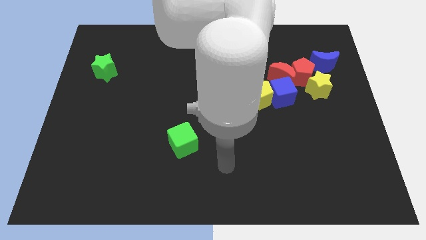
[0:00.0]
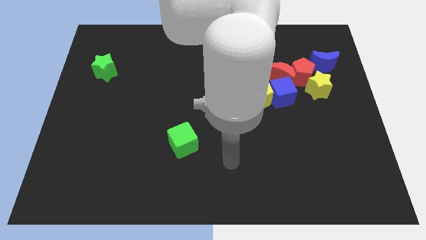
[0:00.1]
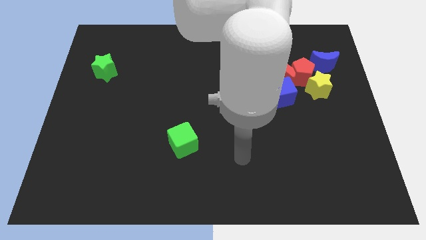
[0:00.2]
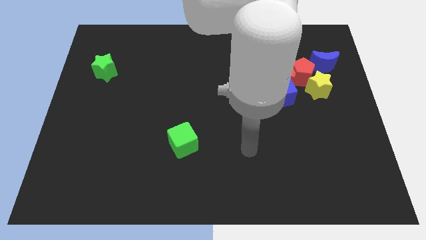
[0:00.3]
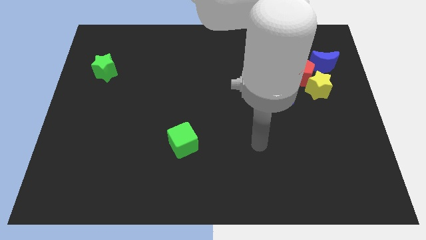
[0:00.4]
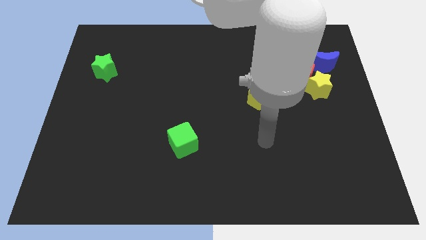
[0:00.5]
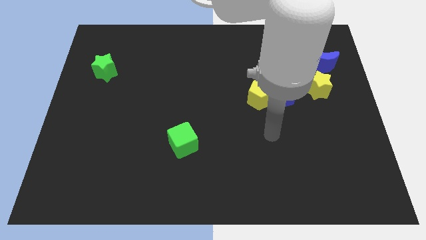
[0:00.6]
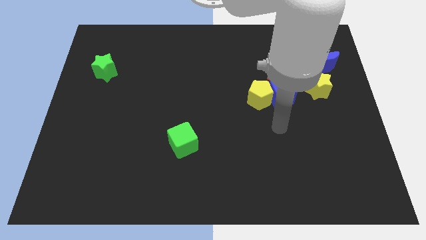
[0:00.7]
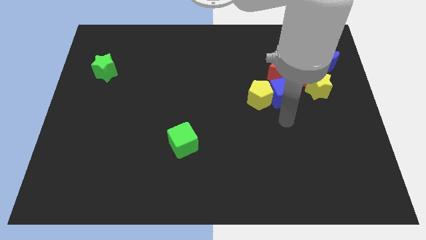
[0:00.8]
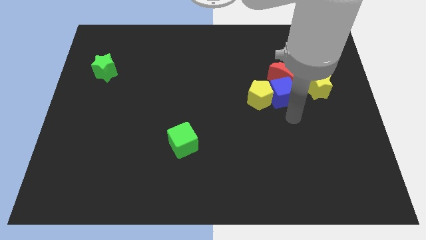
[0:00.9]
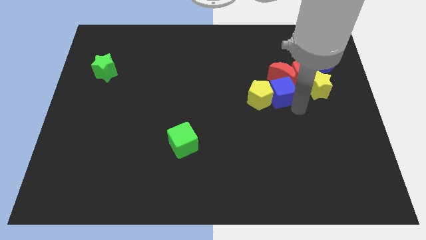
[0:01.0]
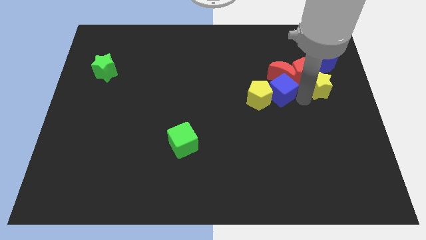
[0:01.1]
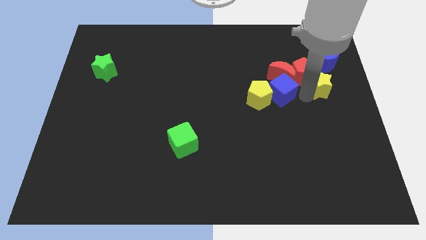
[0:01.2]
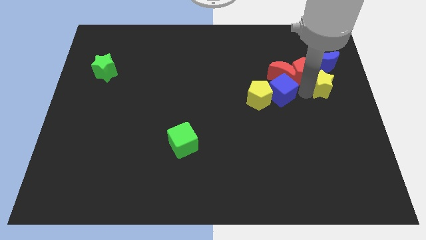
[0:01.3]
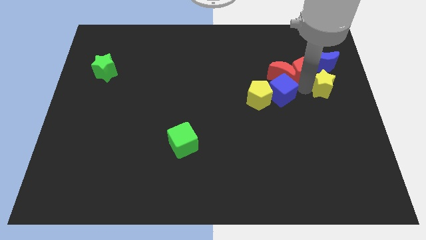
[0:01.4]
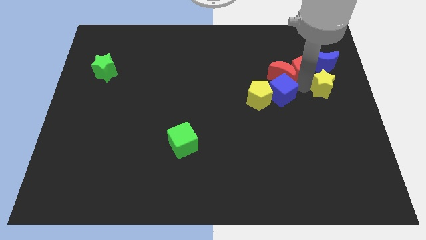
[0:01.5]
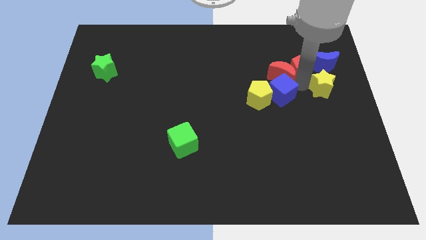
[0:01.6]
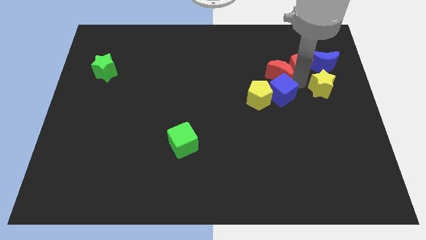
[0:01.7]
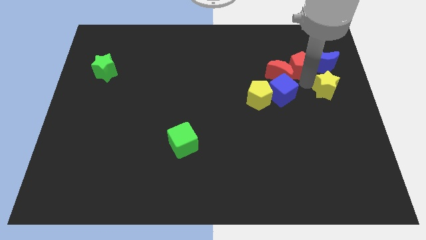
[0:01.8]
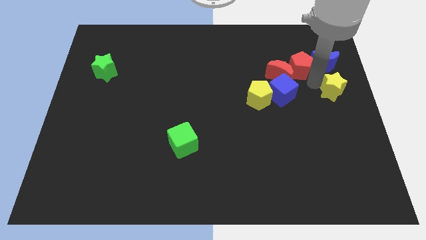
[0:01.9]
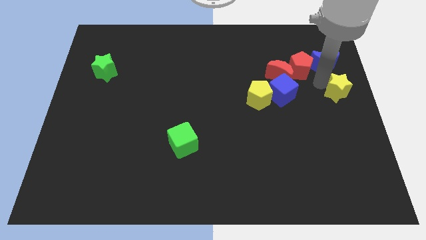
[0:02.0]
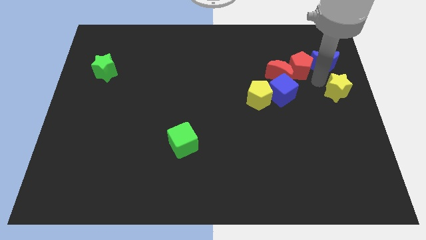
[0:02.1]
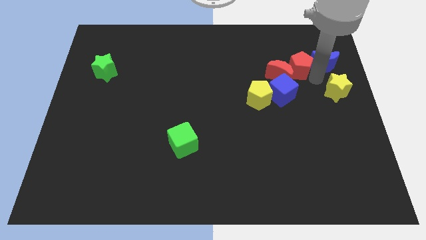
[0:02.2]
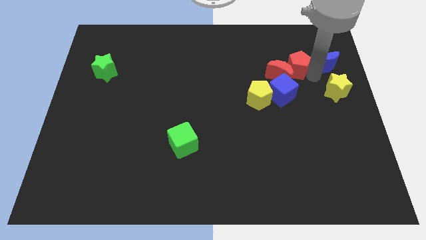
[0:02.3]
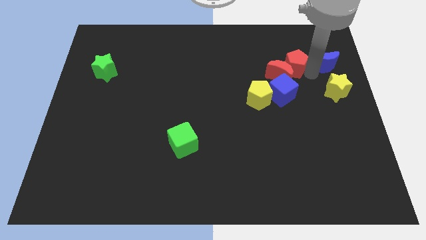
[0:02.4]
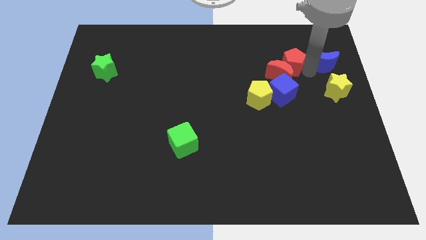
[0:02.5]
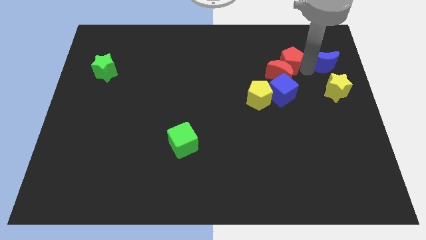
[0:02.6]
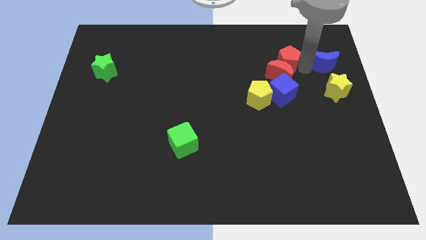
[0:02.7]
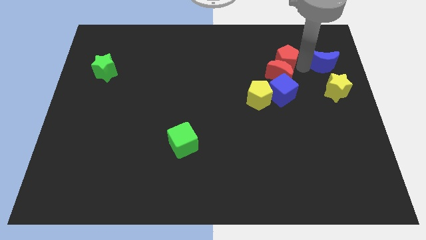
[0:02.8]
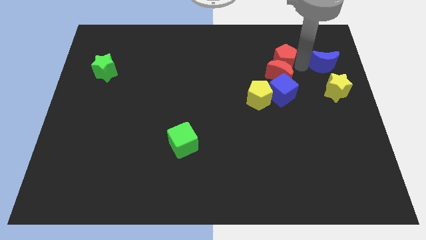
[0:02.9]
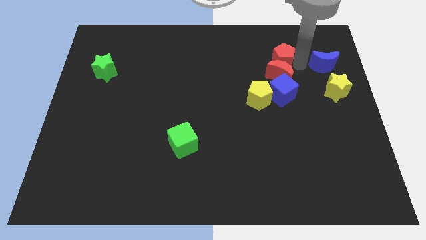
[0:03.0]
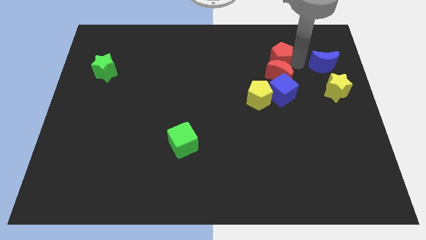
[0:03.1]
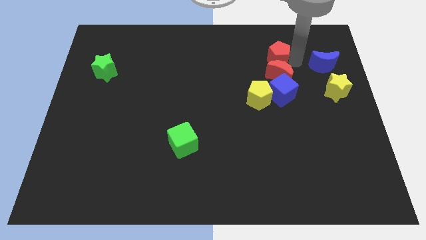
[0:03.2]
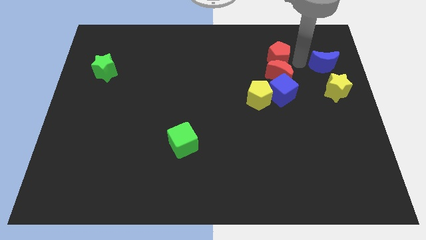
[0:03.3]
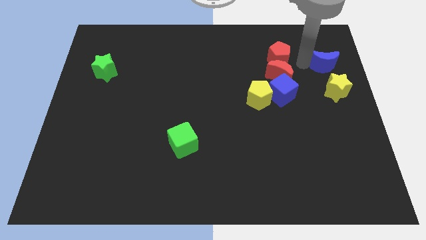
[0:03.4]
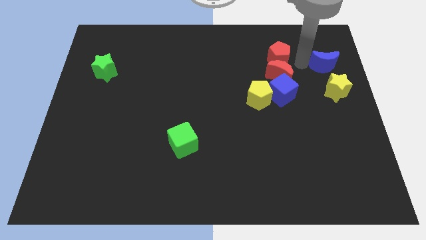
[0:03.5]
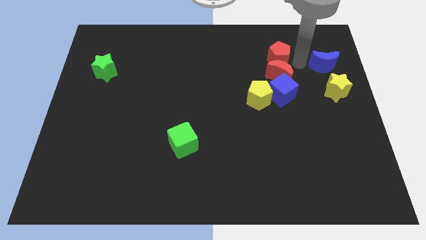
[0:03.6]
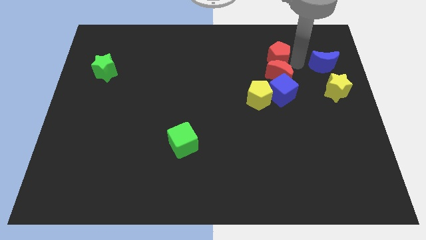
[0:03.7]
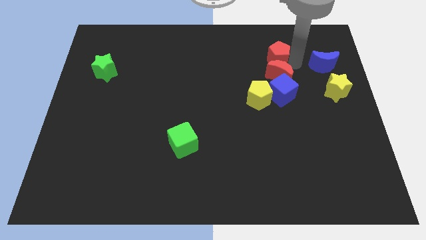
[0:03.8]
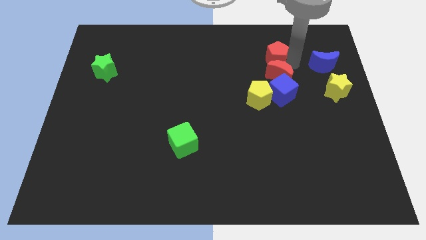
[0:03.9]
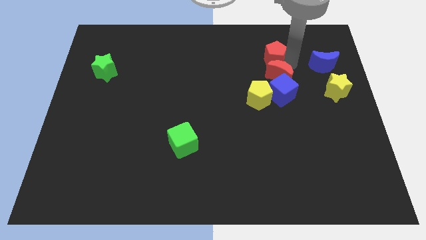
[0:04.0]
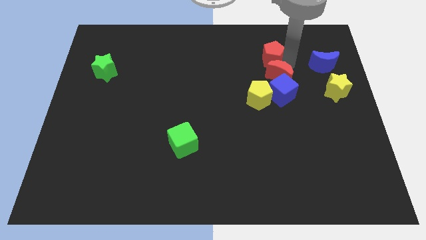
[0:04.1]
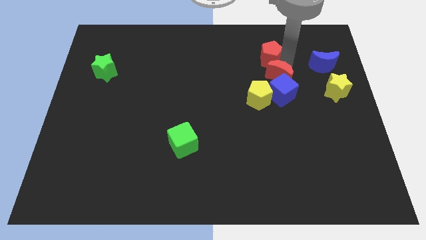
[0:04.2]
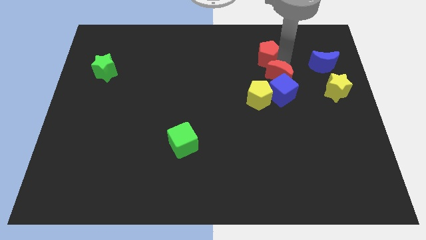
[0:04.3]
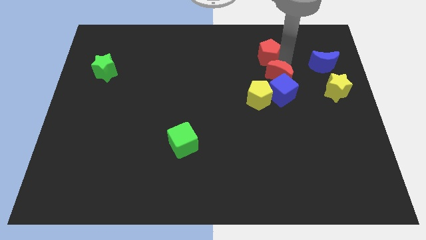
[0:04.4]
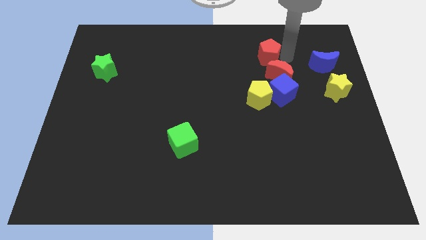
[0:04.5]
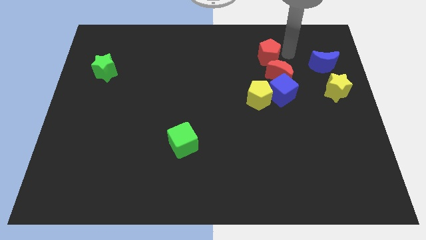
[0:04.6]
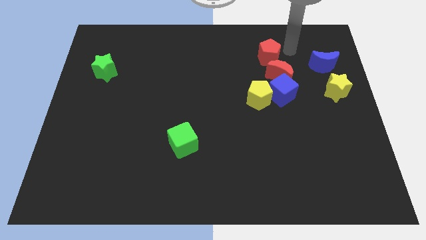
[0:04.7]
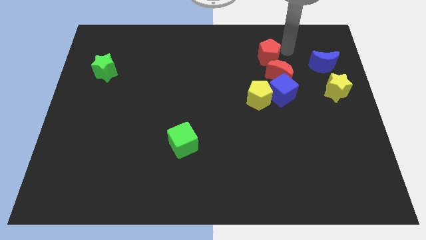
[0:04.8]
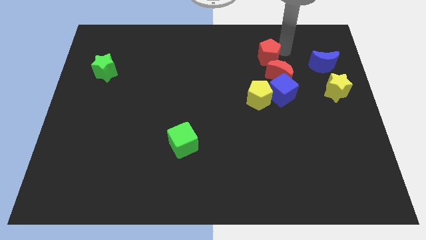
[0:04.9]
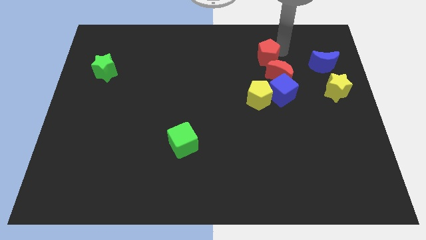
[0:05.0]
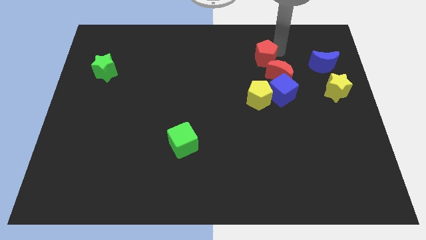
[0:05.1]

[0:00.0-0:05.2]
slightly push the red pentagon left

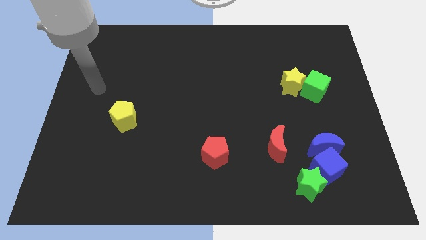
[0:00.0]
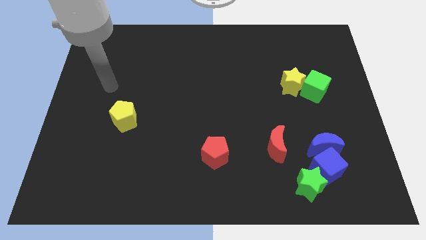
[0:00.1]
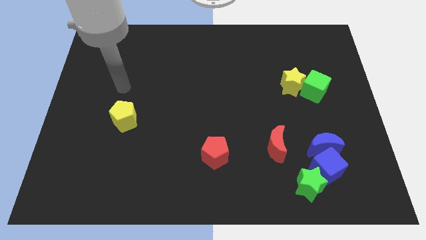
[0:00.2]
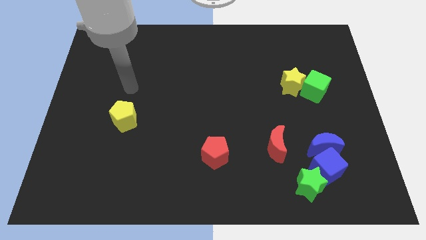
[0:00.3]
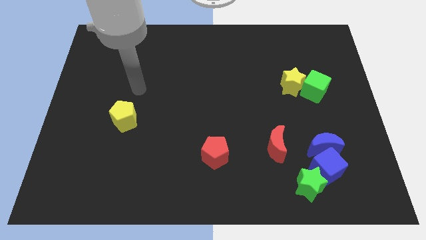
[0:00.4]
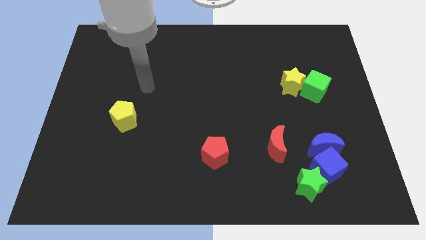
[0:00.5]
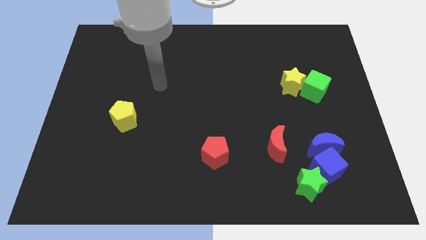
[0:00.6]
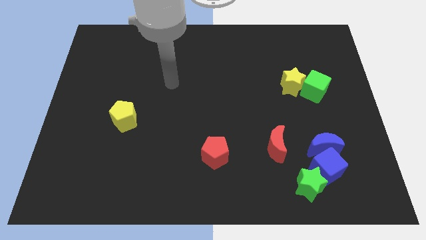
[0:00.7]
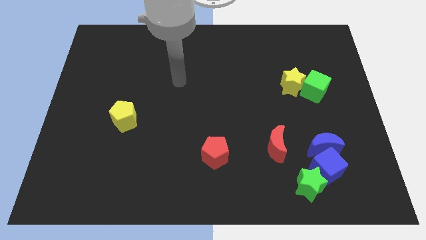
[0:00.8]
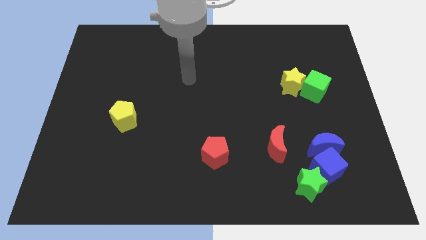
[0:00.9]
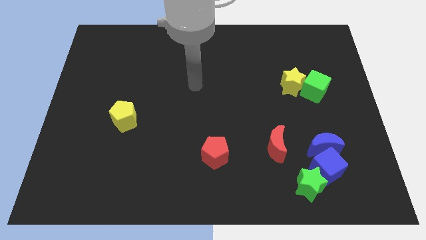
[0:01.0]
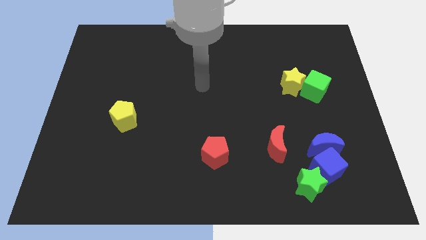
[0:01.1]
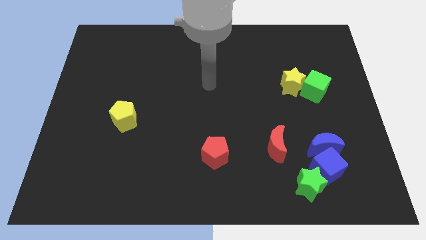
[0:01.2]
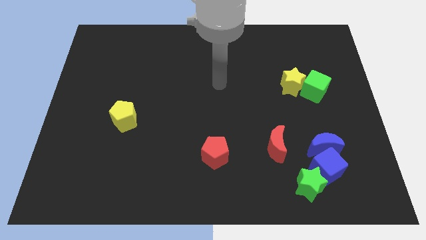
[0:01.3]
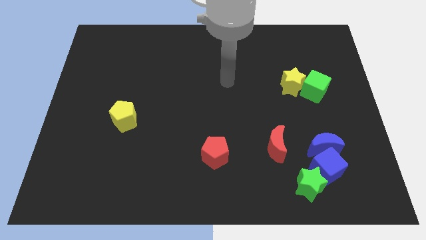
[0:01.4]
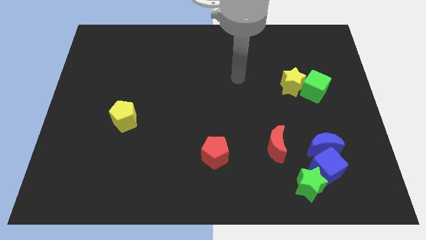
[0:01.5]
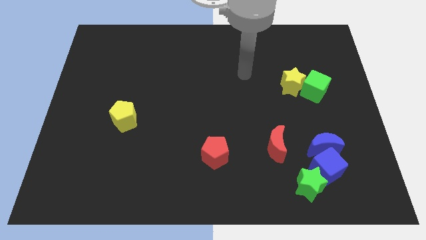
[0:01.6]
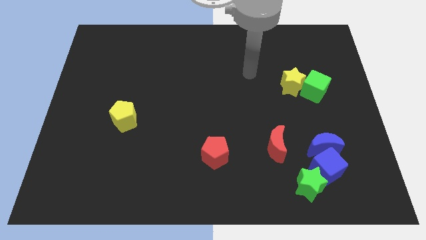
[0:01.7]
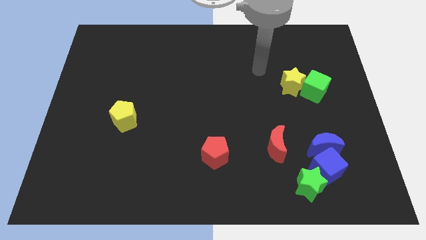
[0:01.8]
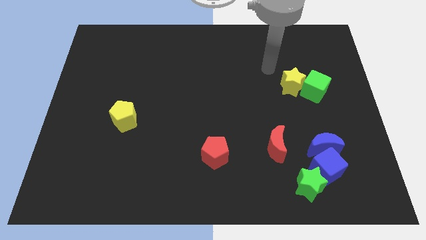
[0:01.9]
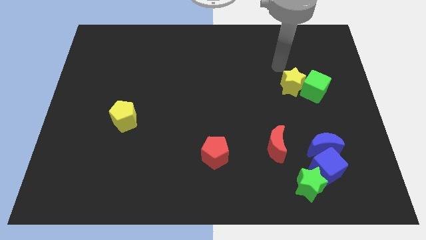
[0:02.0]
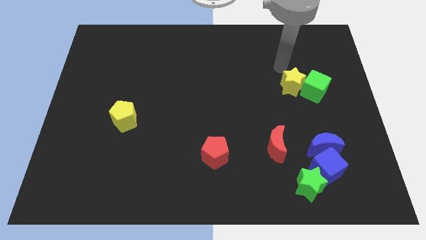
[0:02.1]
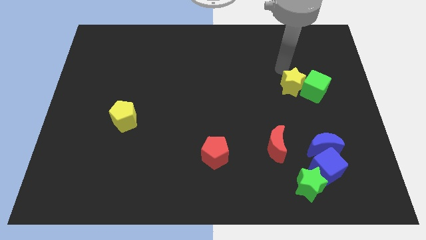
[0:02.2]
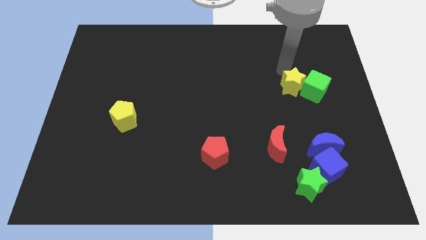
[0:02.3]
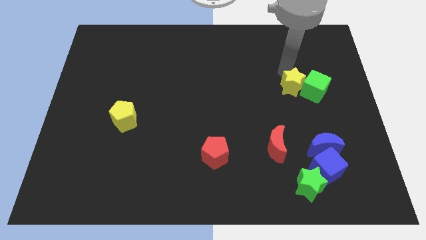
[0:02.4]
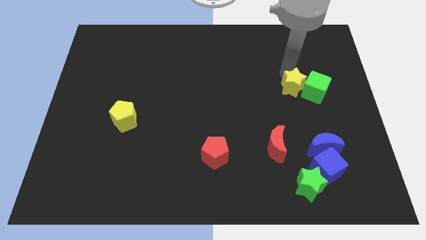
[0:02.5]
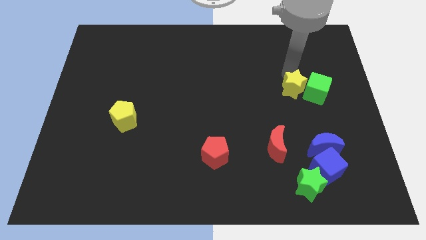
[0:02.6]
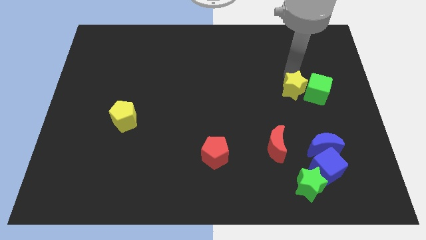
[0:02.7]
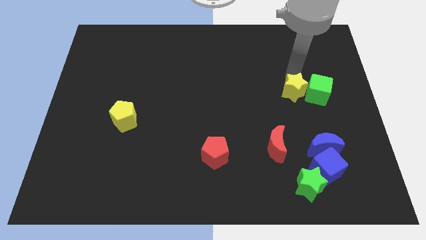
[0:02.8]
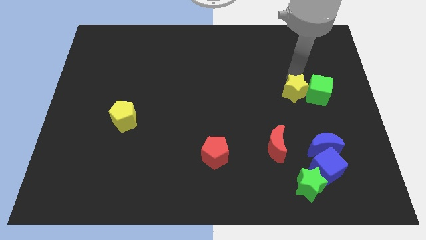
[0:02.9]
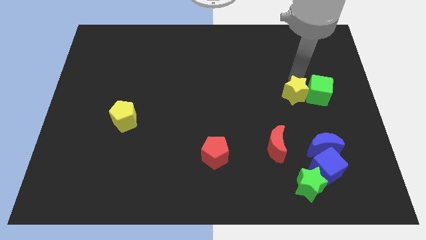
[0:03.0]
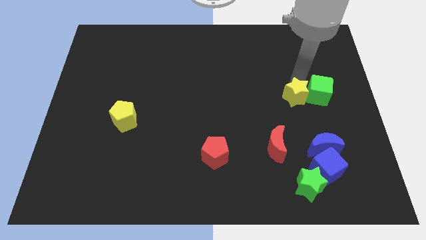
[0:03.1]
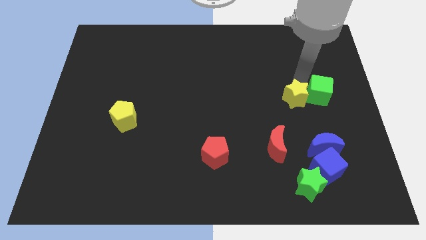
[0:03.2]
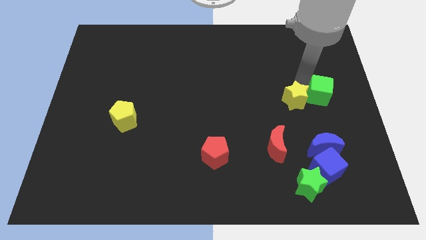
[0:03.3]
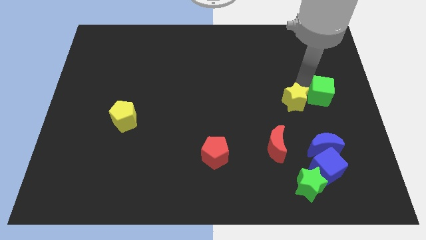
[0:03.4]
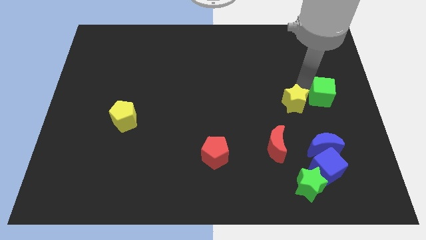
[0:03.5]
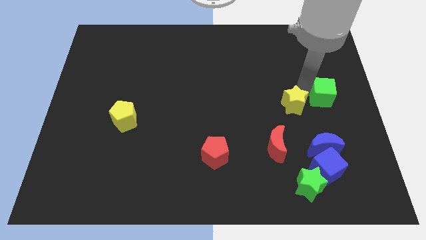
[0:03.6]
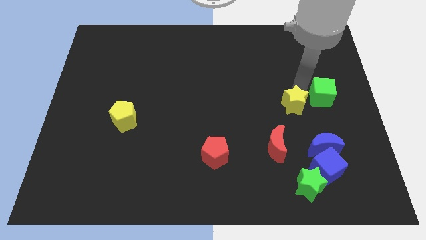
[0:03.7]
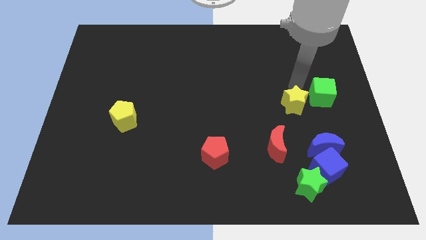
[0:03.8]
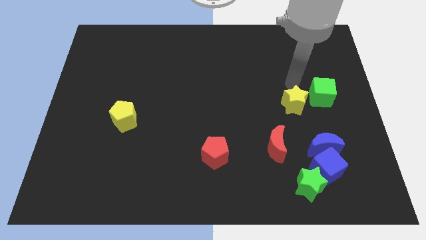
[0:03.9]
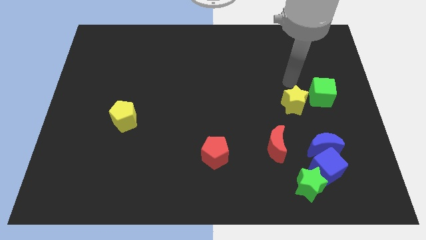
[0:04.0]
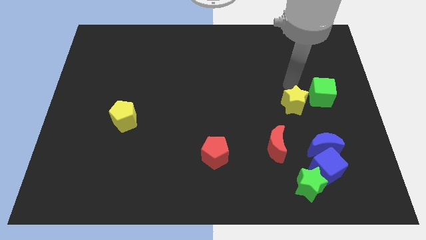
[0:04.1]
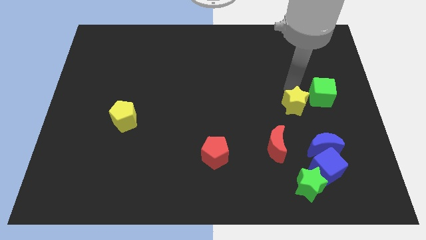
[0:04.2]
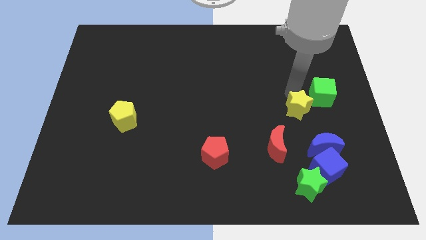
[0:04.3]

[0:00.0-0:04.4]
move the yellow star a little bit downwards
